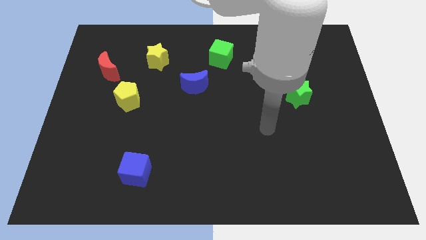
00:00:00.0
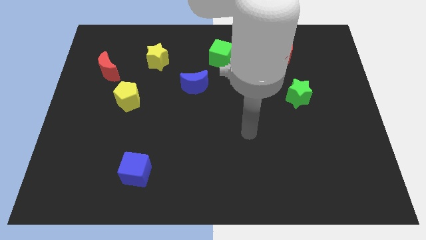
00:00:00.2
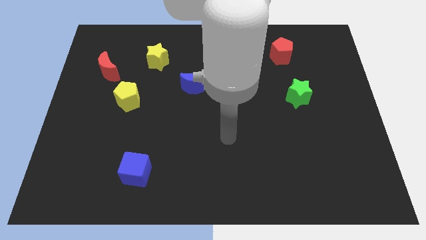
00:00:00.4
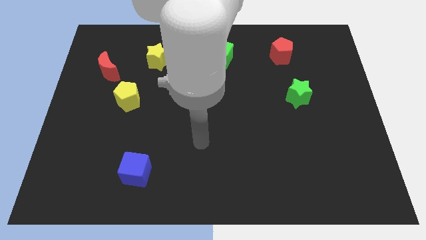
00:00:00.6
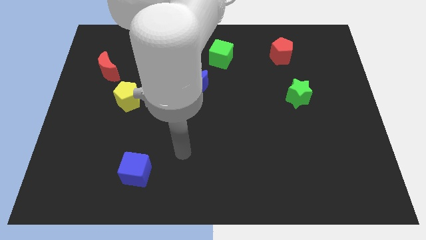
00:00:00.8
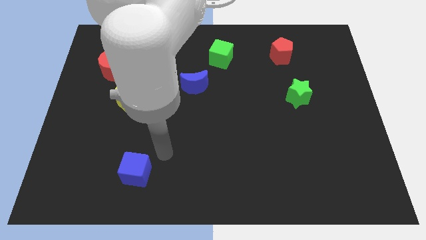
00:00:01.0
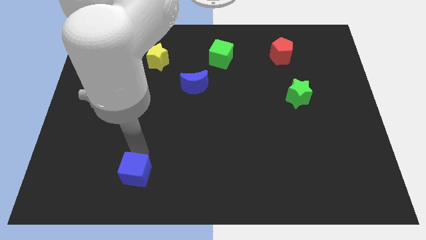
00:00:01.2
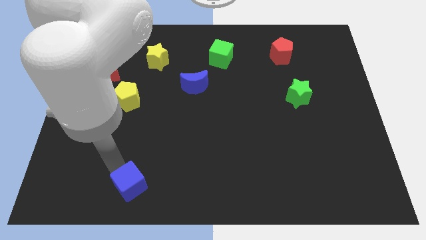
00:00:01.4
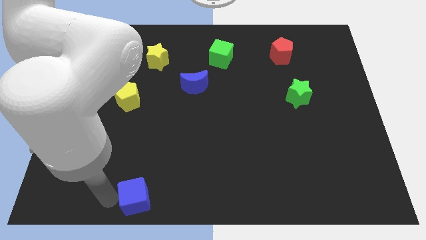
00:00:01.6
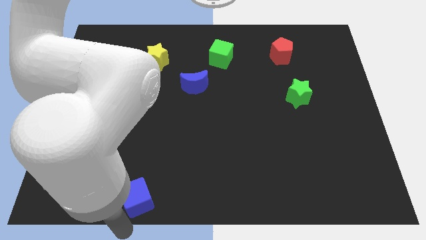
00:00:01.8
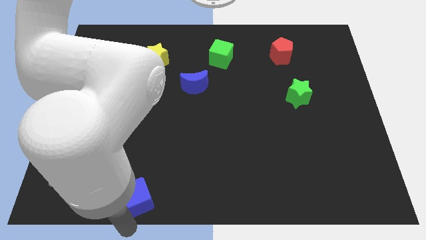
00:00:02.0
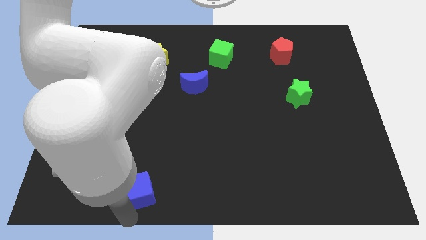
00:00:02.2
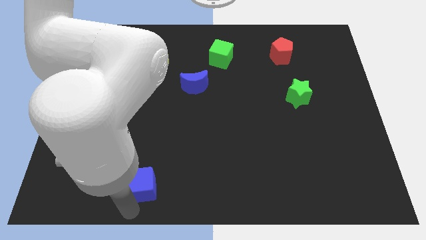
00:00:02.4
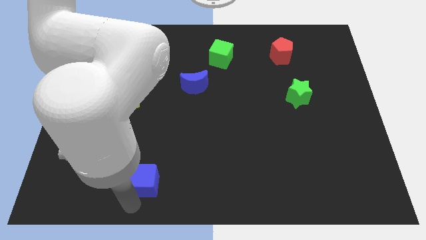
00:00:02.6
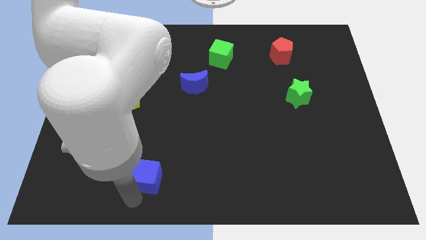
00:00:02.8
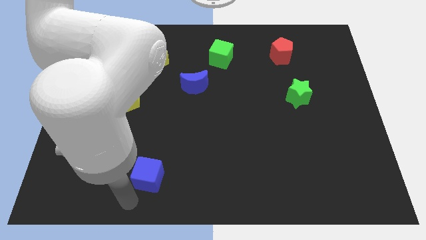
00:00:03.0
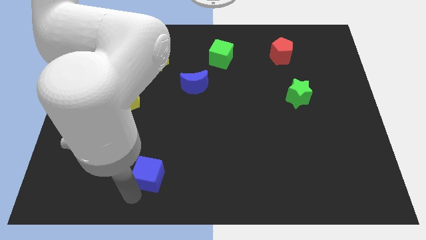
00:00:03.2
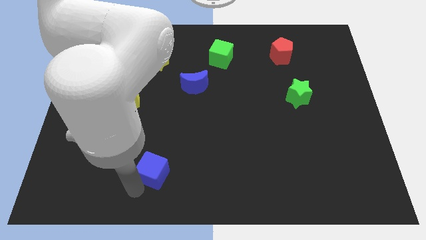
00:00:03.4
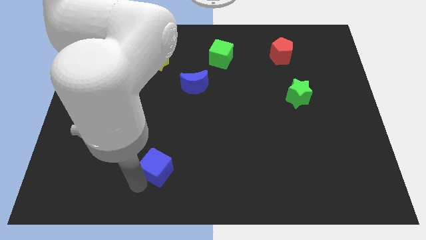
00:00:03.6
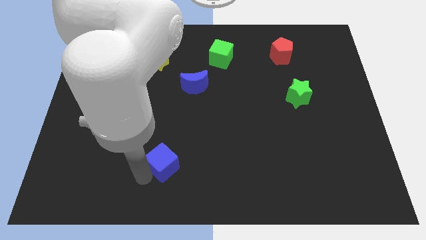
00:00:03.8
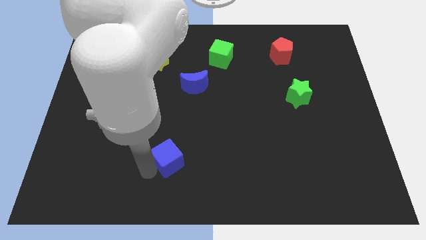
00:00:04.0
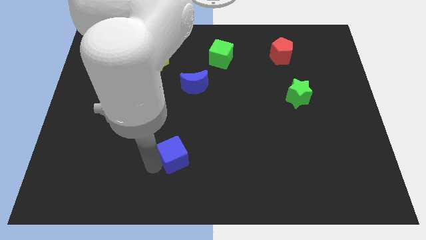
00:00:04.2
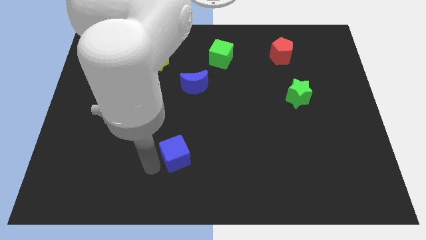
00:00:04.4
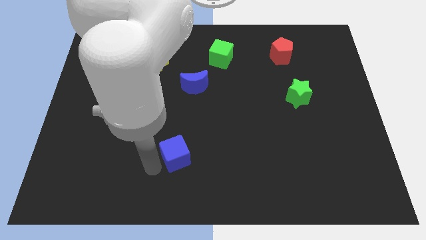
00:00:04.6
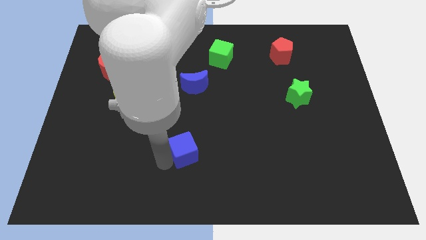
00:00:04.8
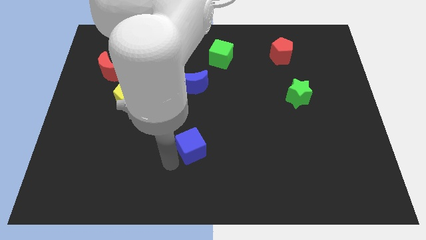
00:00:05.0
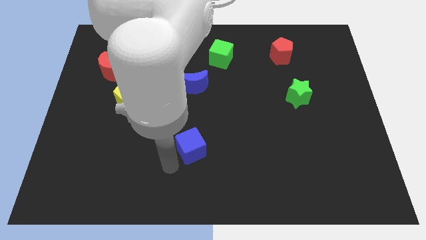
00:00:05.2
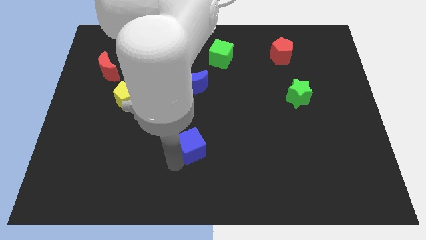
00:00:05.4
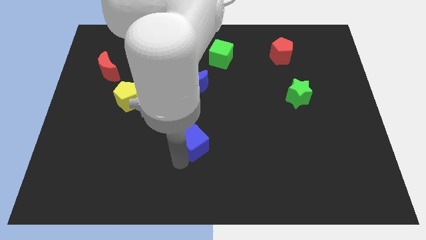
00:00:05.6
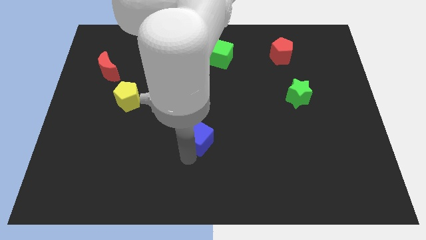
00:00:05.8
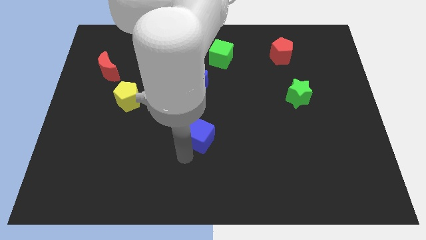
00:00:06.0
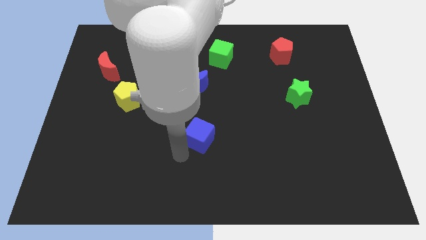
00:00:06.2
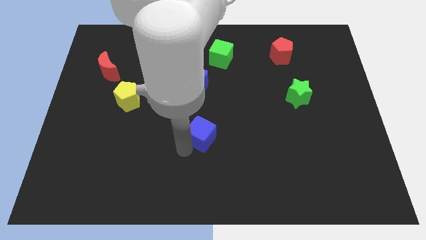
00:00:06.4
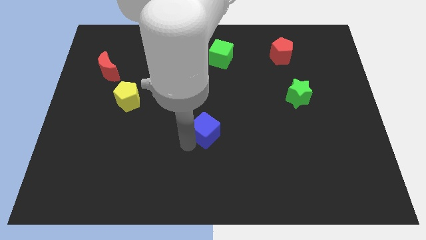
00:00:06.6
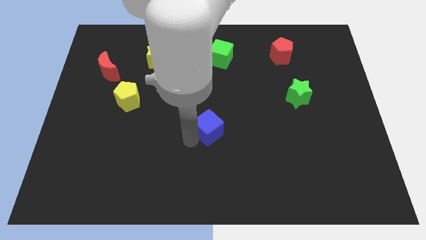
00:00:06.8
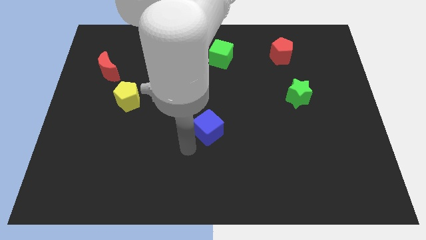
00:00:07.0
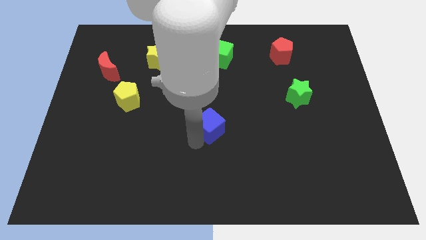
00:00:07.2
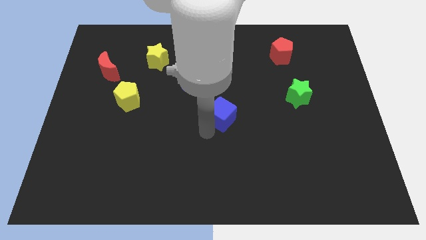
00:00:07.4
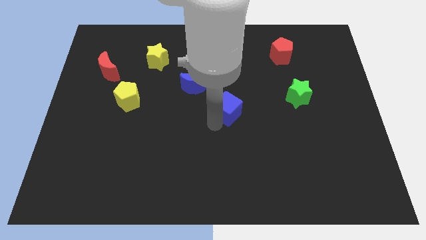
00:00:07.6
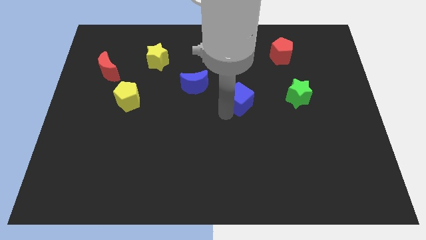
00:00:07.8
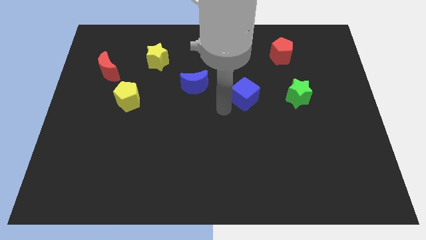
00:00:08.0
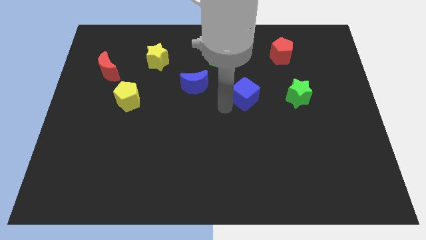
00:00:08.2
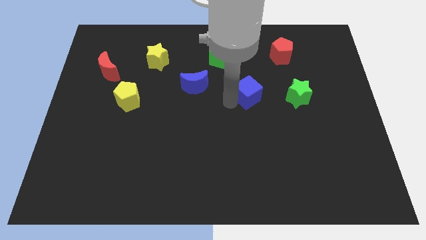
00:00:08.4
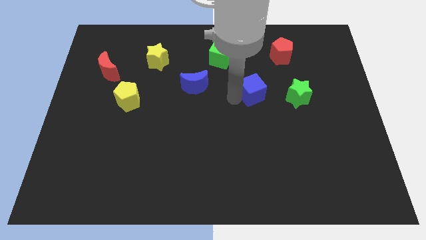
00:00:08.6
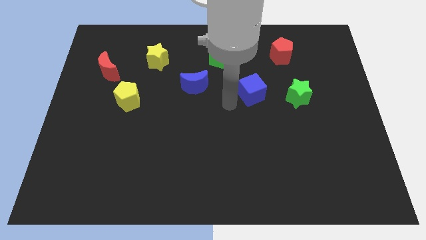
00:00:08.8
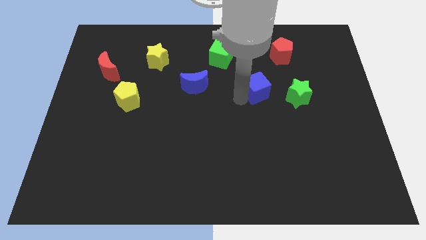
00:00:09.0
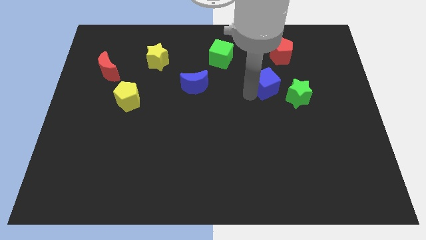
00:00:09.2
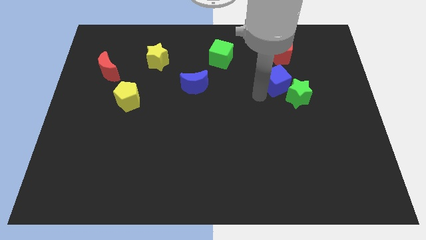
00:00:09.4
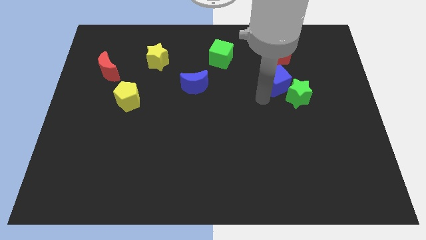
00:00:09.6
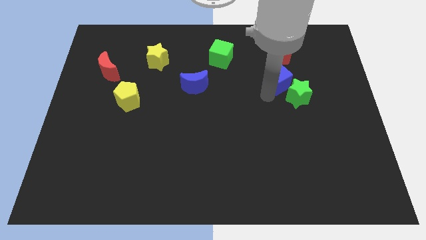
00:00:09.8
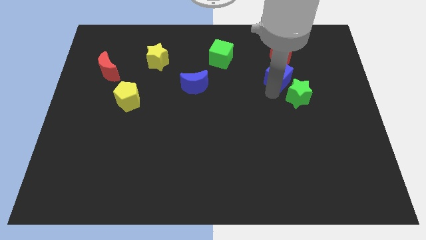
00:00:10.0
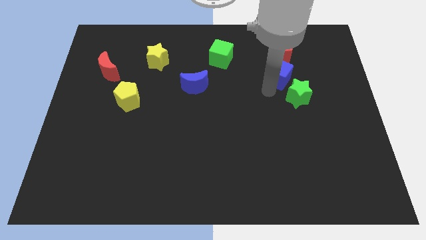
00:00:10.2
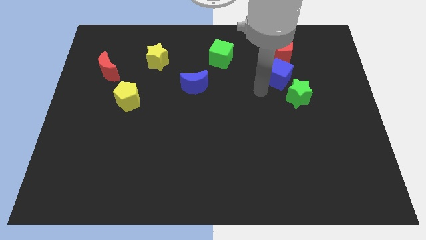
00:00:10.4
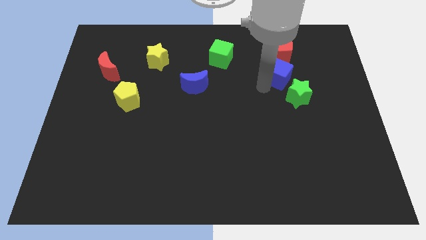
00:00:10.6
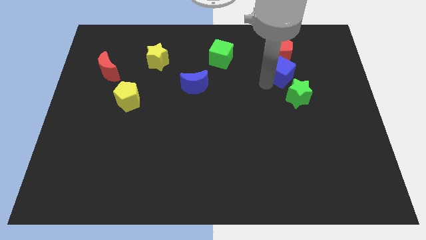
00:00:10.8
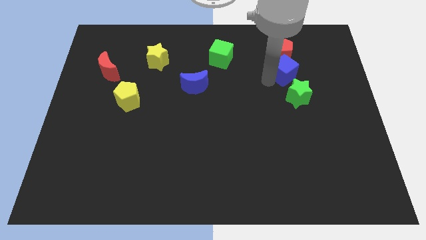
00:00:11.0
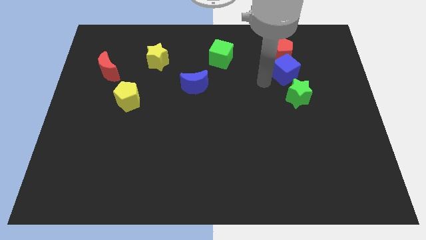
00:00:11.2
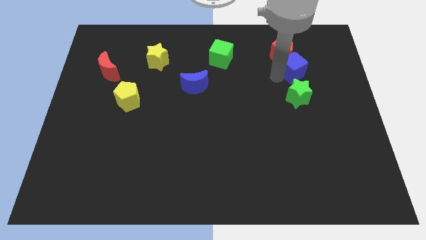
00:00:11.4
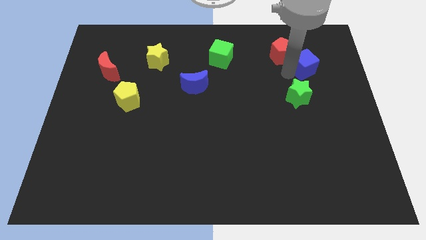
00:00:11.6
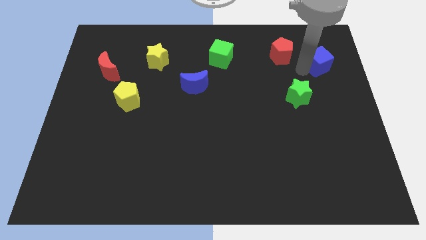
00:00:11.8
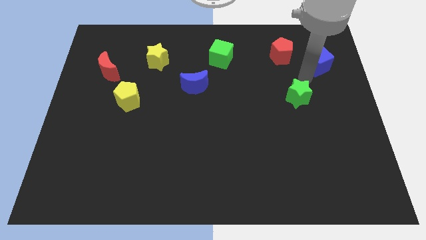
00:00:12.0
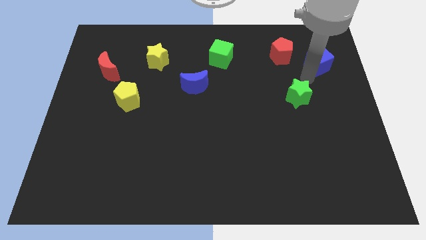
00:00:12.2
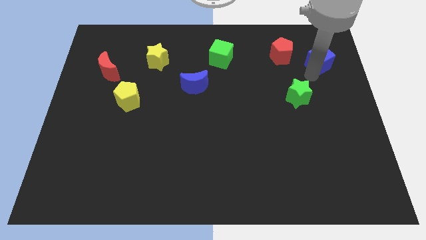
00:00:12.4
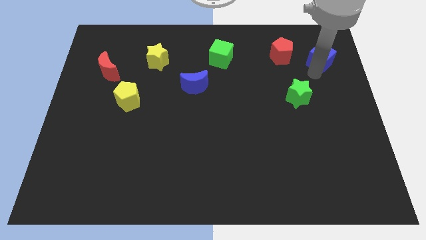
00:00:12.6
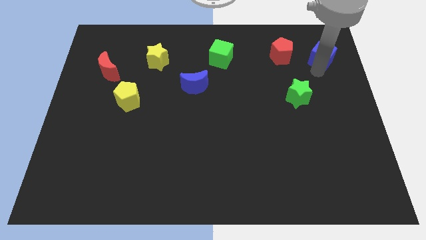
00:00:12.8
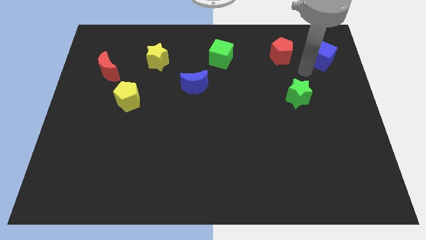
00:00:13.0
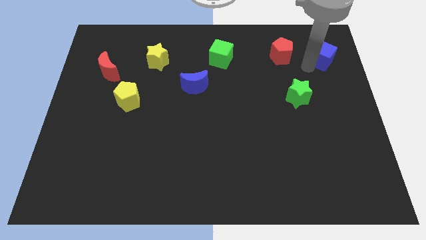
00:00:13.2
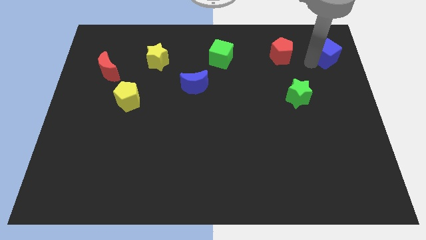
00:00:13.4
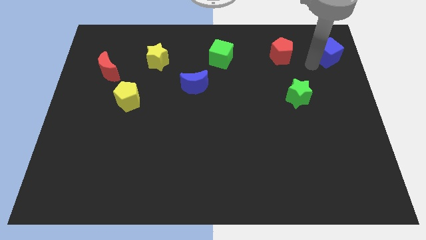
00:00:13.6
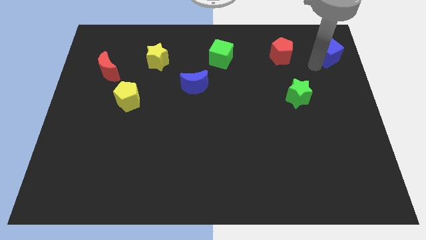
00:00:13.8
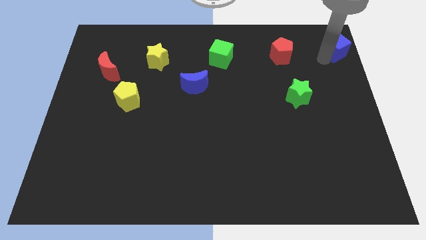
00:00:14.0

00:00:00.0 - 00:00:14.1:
slide the blue cube to the top right

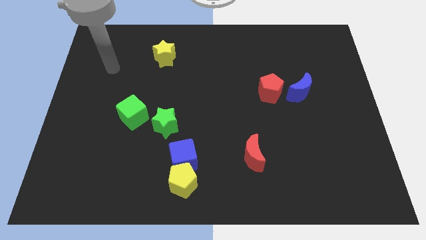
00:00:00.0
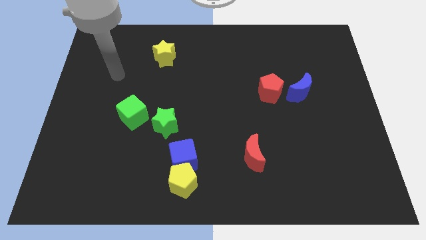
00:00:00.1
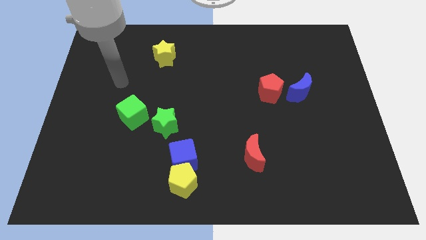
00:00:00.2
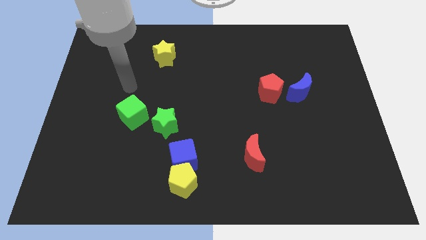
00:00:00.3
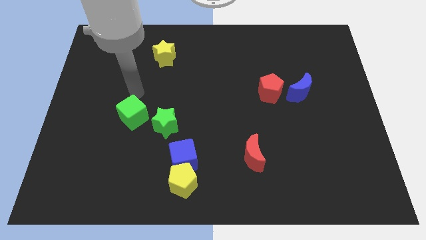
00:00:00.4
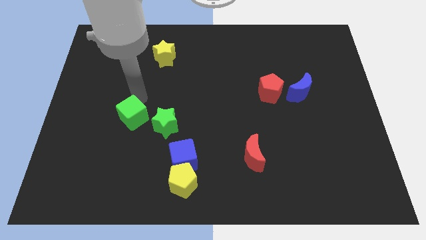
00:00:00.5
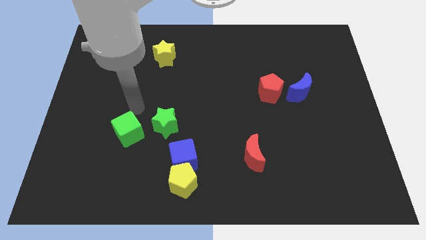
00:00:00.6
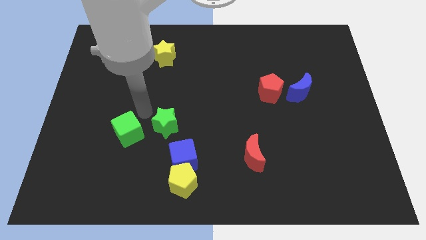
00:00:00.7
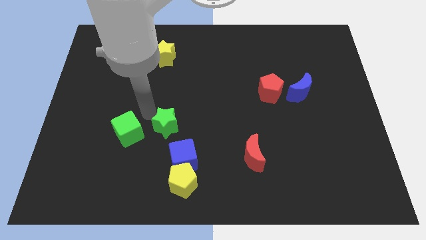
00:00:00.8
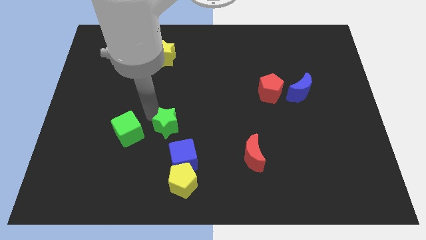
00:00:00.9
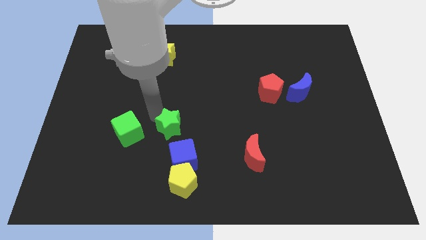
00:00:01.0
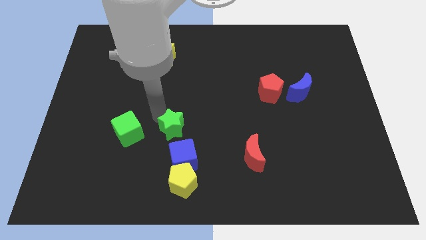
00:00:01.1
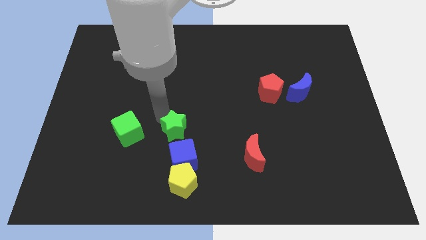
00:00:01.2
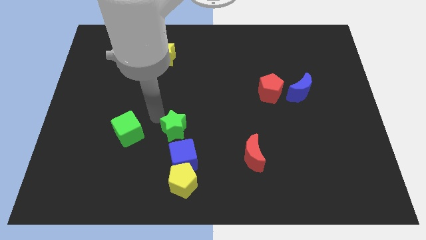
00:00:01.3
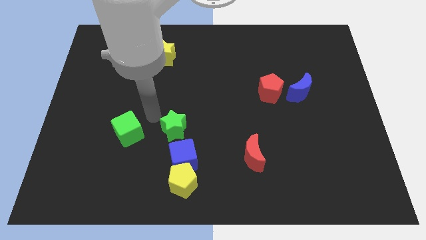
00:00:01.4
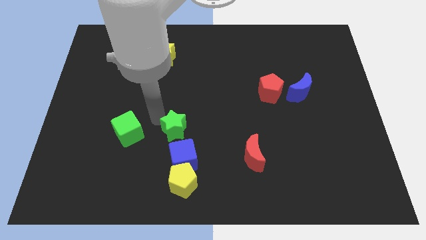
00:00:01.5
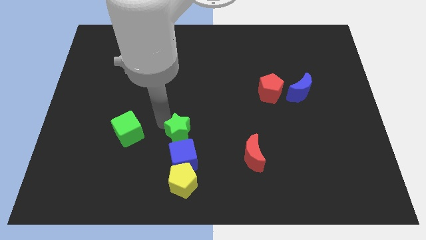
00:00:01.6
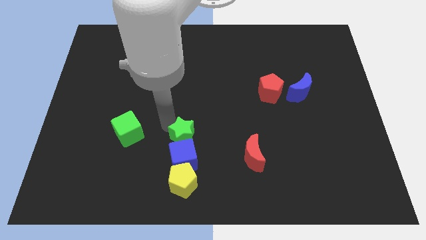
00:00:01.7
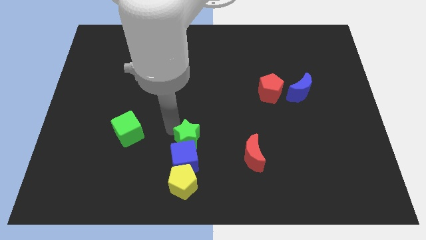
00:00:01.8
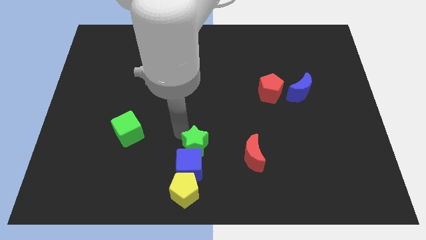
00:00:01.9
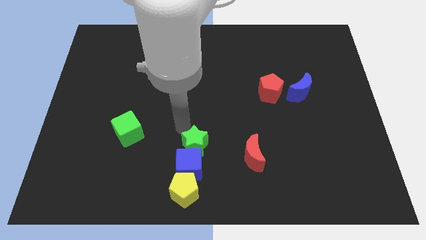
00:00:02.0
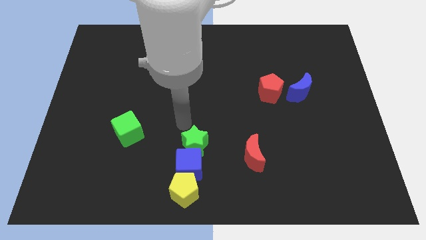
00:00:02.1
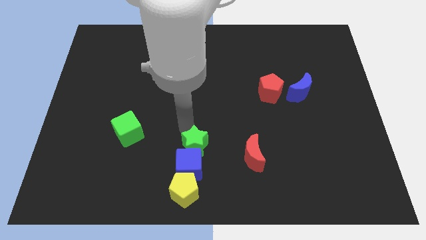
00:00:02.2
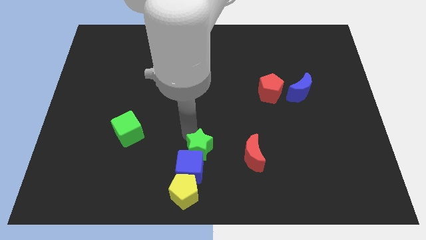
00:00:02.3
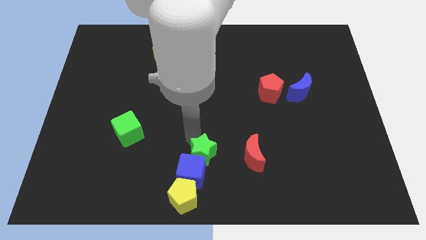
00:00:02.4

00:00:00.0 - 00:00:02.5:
push the green star to the bottom side
